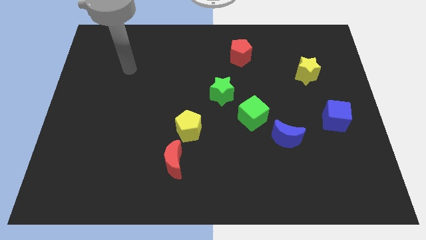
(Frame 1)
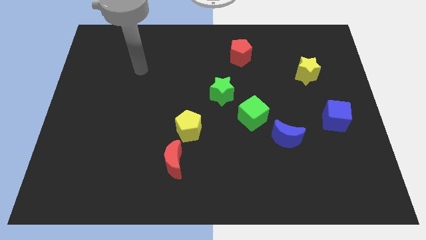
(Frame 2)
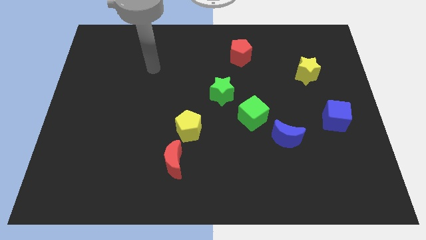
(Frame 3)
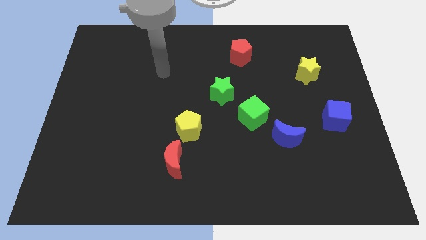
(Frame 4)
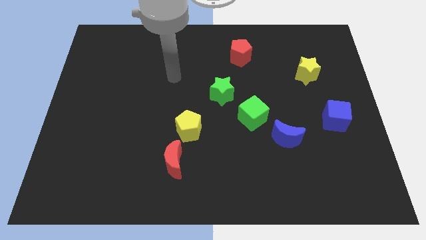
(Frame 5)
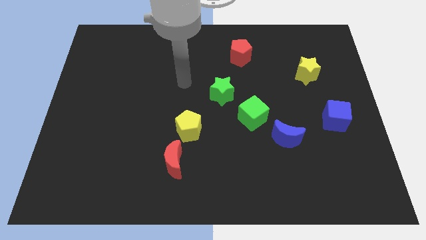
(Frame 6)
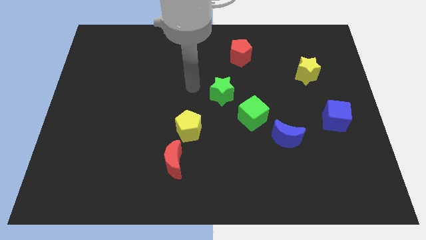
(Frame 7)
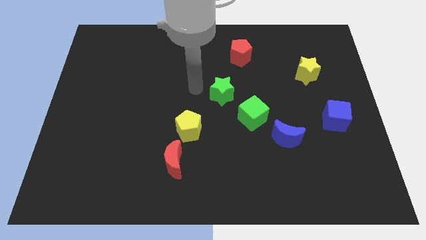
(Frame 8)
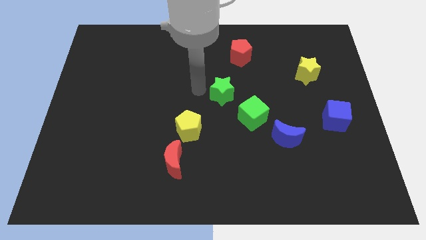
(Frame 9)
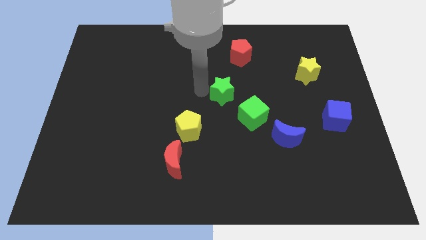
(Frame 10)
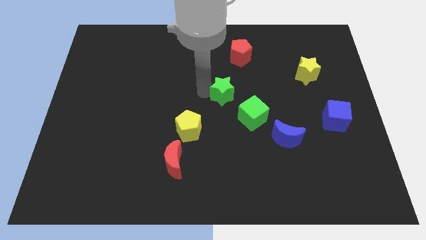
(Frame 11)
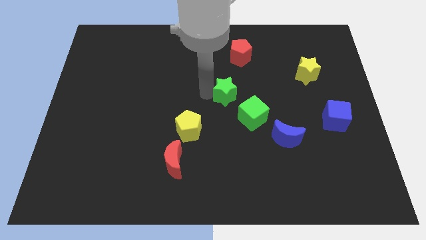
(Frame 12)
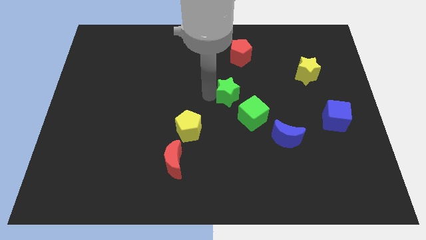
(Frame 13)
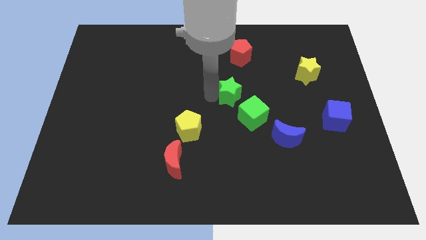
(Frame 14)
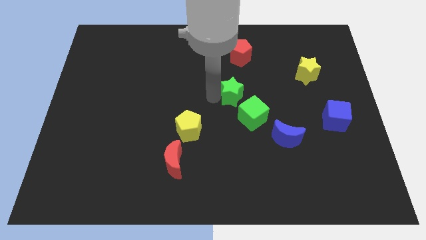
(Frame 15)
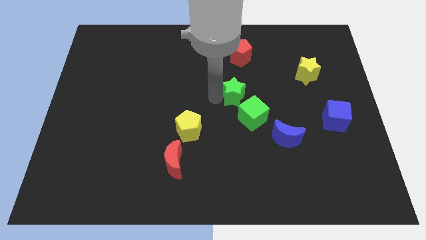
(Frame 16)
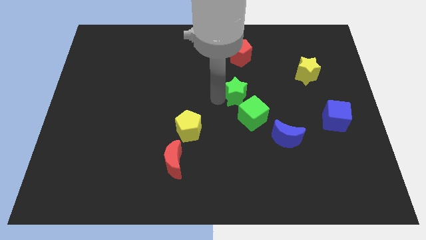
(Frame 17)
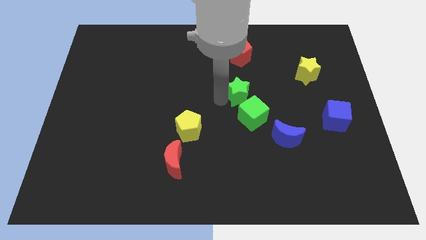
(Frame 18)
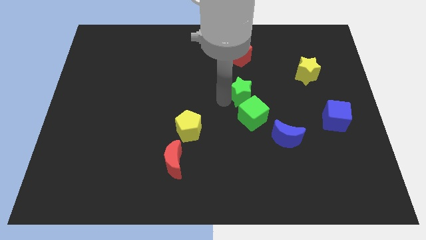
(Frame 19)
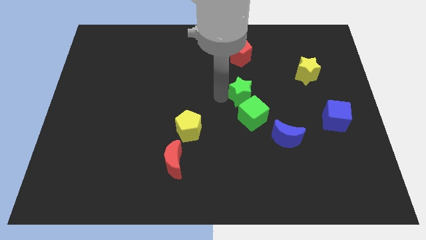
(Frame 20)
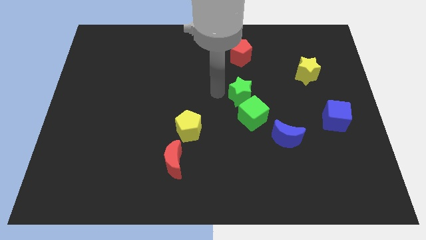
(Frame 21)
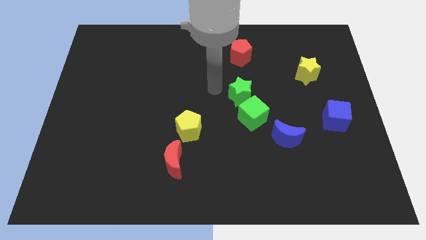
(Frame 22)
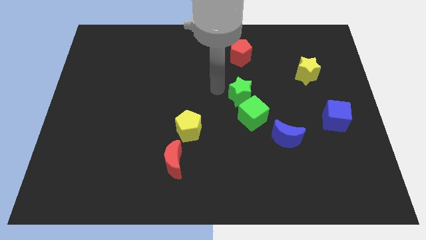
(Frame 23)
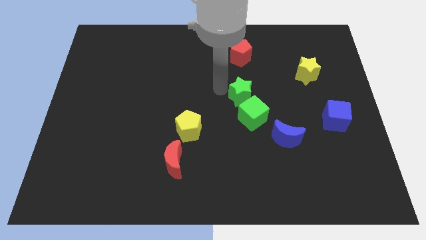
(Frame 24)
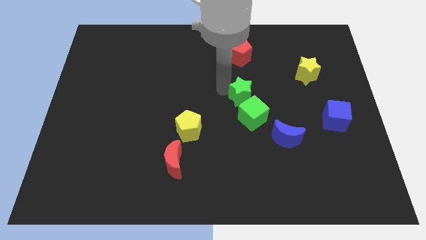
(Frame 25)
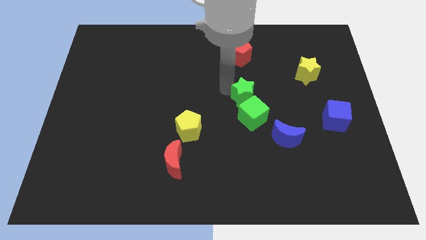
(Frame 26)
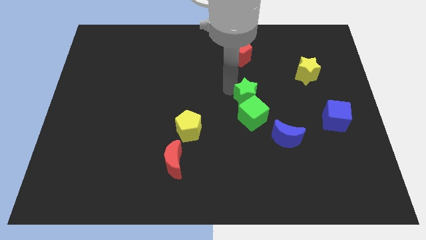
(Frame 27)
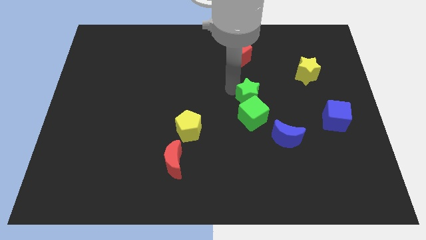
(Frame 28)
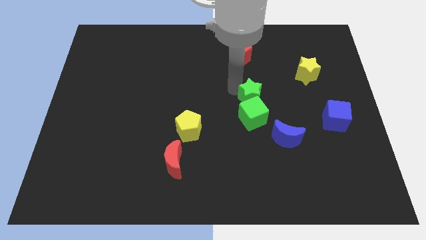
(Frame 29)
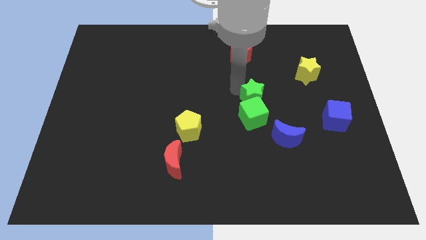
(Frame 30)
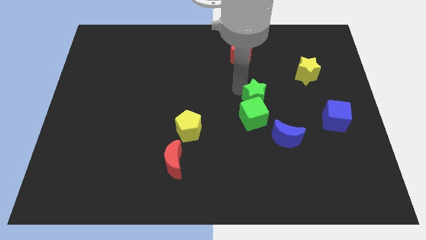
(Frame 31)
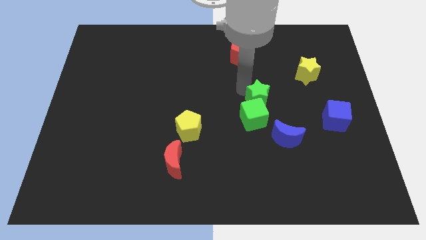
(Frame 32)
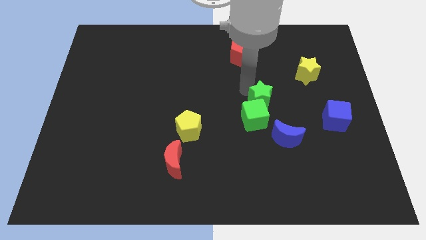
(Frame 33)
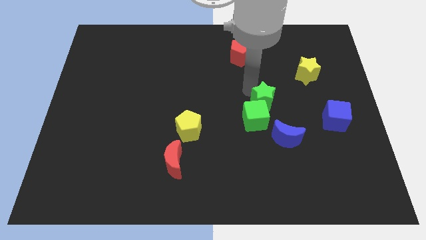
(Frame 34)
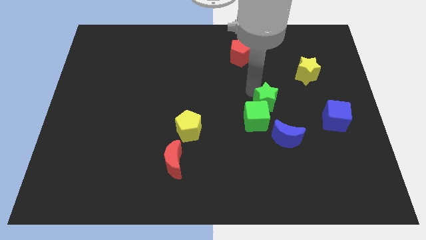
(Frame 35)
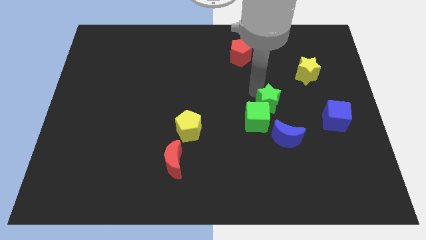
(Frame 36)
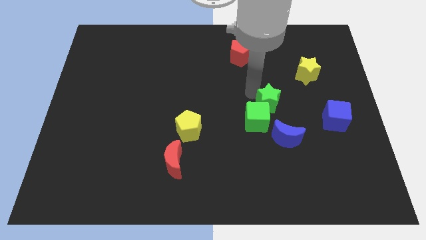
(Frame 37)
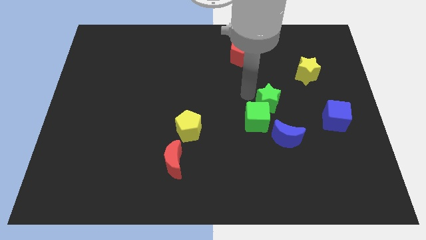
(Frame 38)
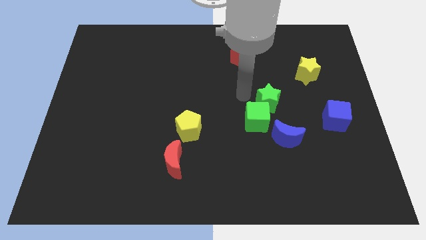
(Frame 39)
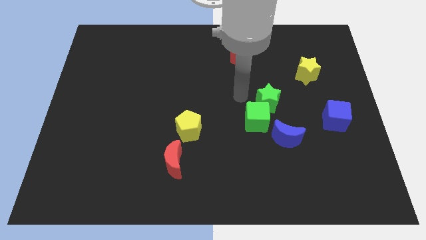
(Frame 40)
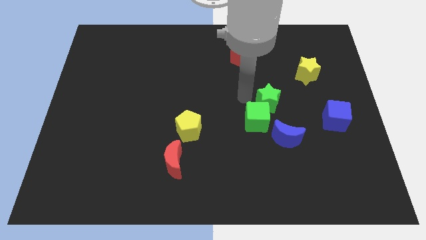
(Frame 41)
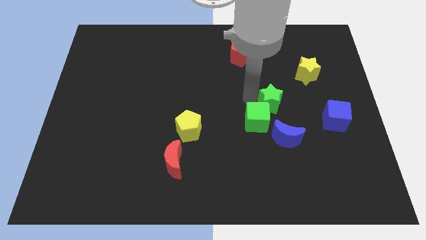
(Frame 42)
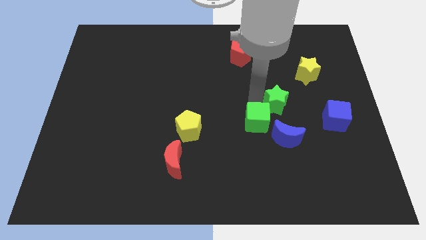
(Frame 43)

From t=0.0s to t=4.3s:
push the green star right of the green cube

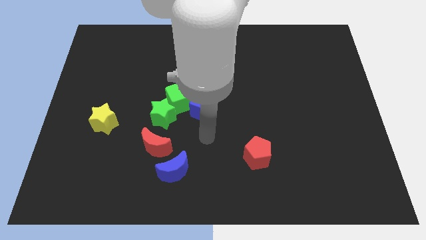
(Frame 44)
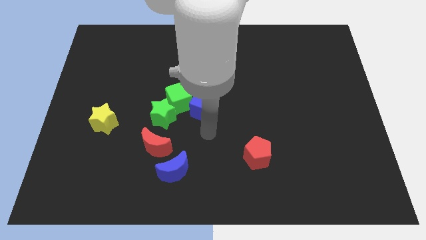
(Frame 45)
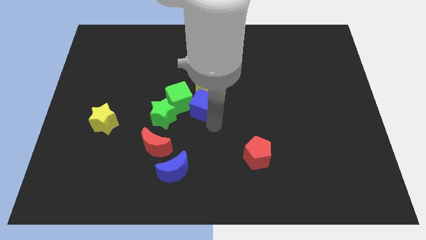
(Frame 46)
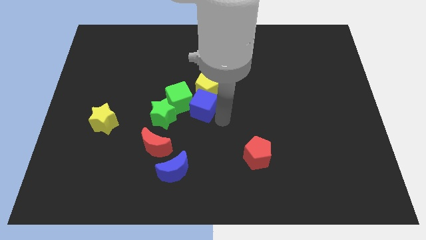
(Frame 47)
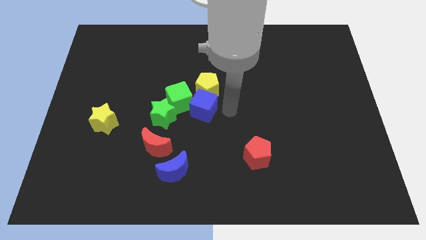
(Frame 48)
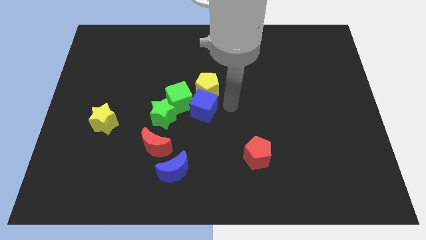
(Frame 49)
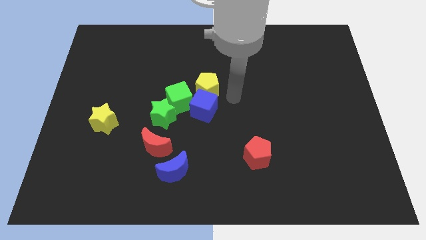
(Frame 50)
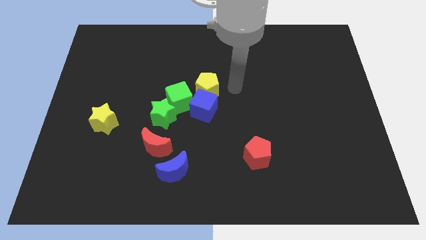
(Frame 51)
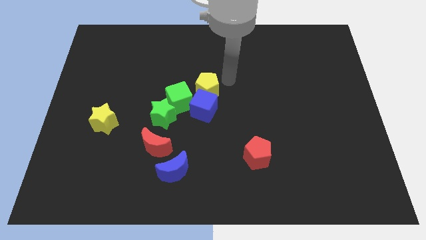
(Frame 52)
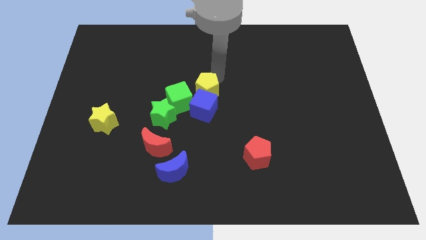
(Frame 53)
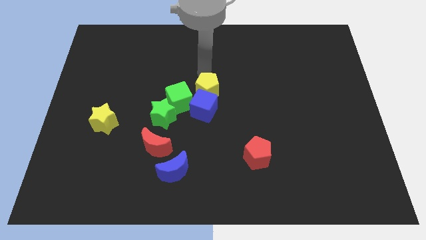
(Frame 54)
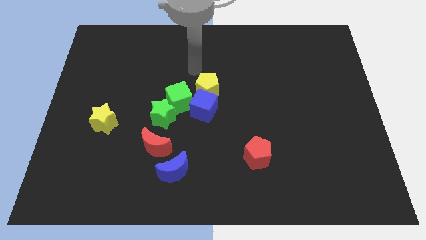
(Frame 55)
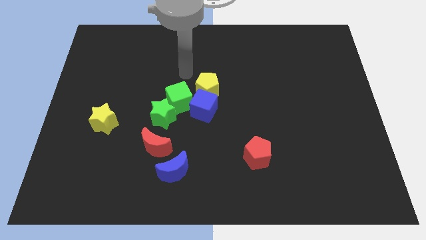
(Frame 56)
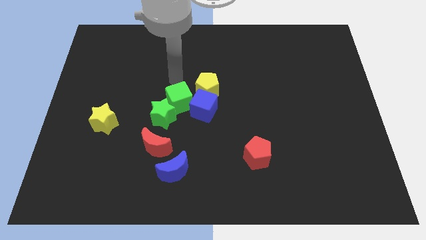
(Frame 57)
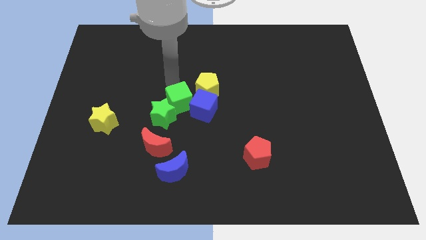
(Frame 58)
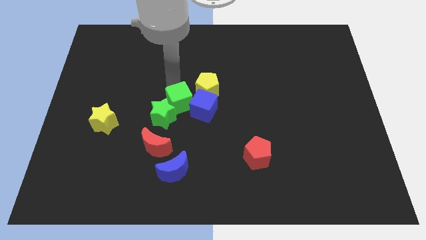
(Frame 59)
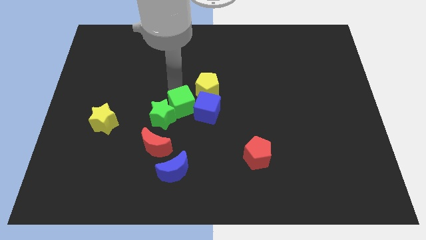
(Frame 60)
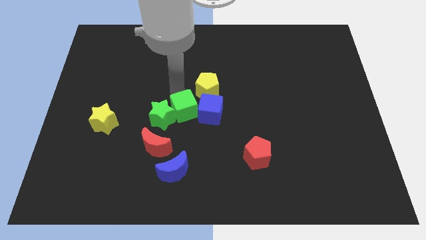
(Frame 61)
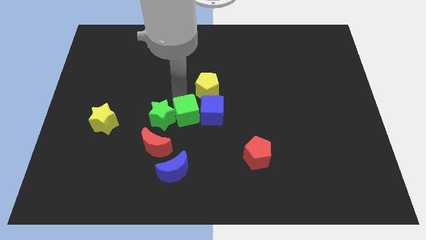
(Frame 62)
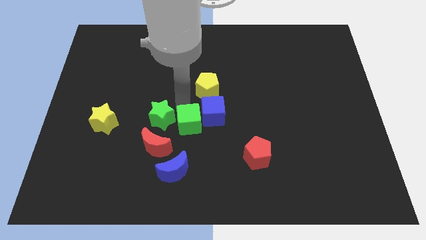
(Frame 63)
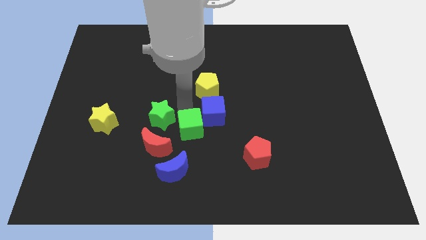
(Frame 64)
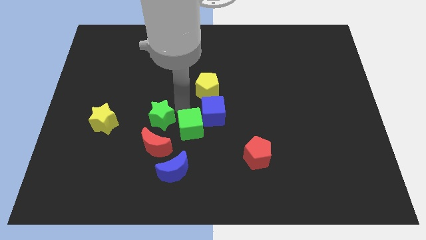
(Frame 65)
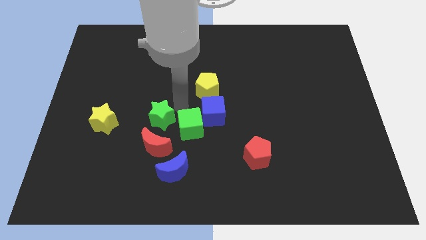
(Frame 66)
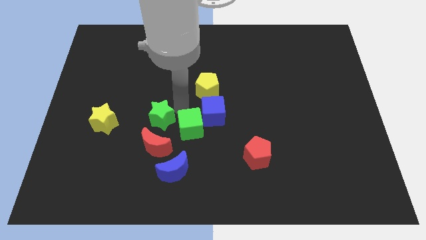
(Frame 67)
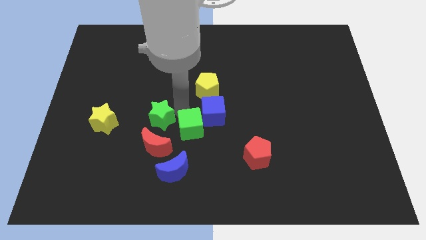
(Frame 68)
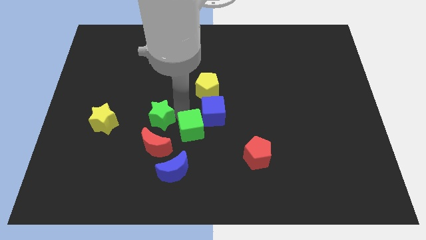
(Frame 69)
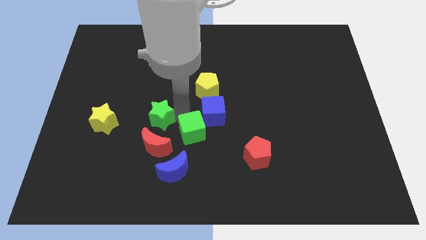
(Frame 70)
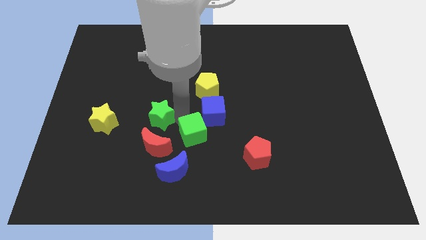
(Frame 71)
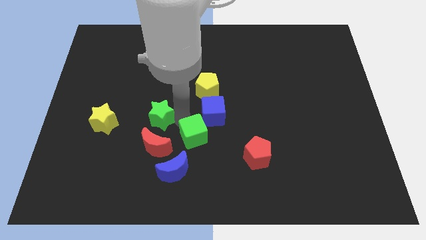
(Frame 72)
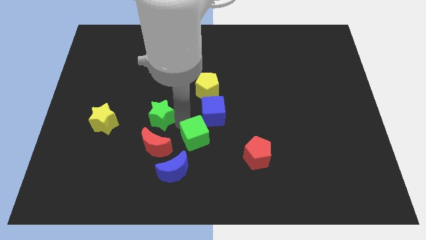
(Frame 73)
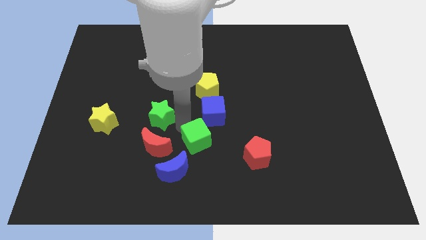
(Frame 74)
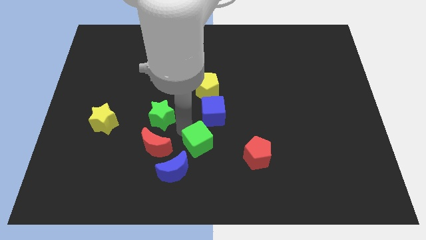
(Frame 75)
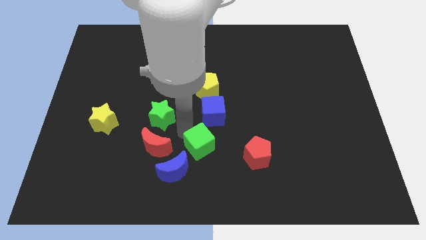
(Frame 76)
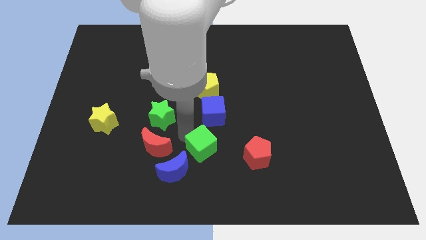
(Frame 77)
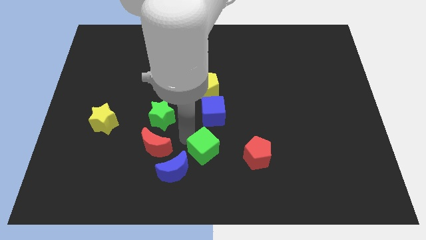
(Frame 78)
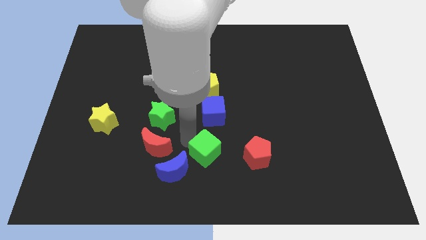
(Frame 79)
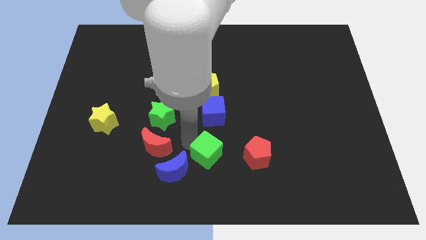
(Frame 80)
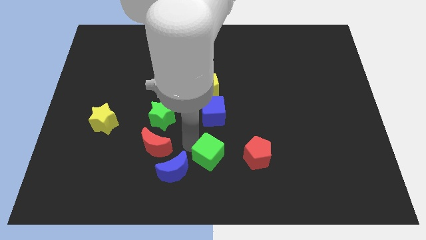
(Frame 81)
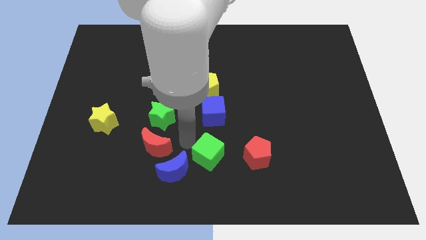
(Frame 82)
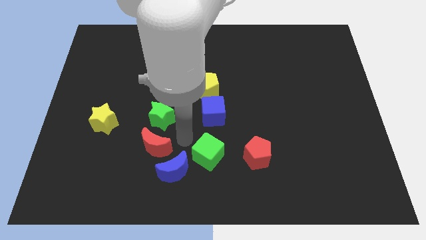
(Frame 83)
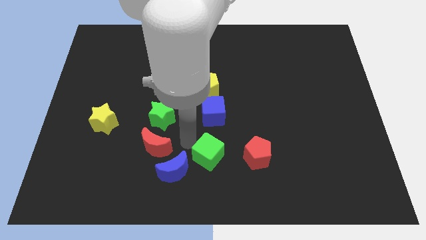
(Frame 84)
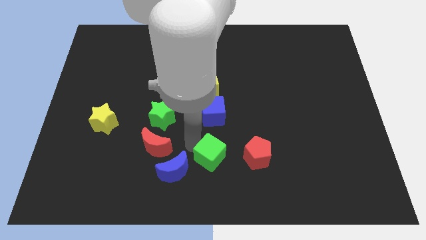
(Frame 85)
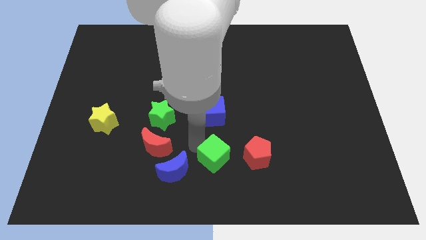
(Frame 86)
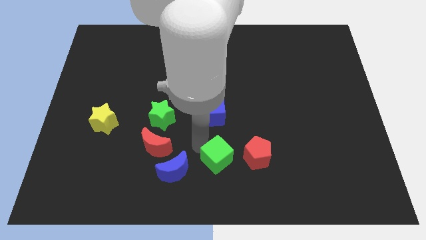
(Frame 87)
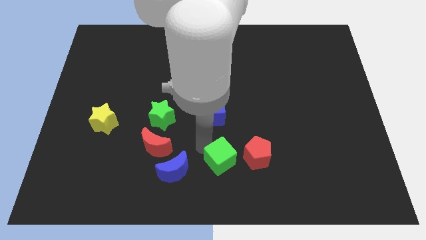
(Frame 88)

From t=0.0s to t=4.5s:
move the green cube to the bottom left side of the red pentagon
